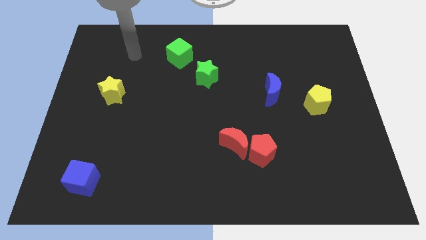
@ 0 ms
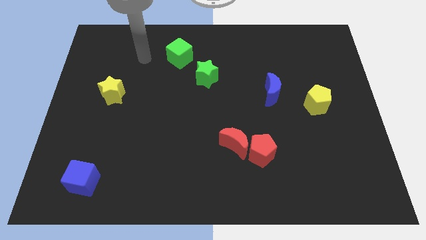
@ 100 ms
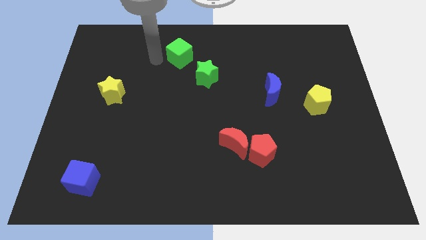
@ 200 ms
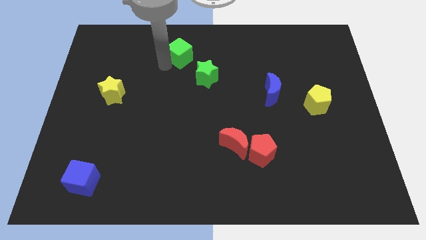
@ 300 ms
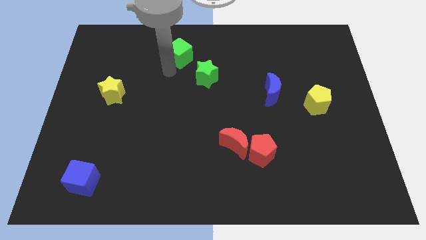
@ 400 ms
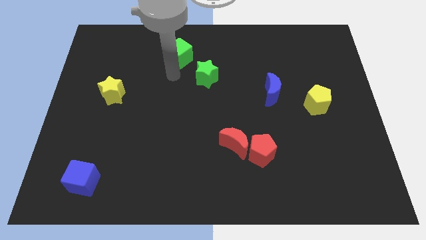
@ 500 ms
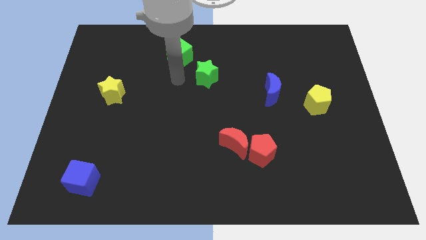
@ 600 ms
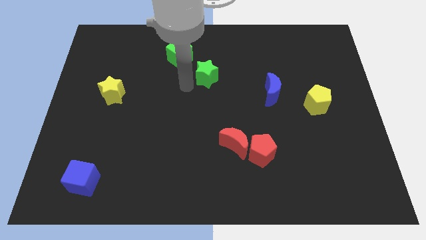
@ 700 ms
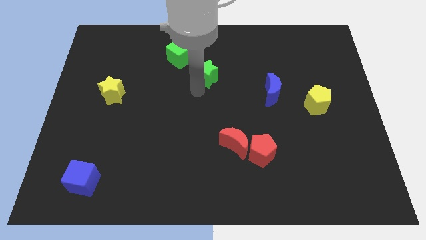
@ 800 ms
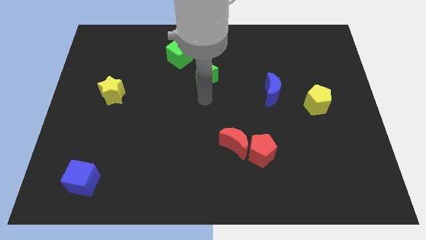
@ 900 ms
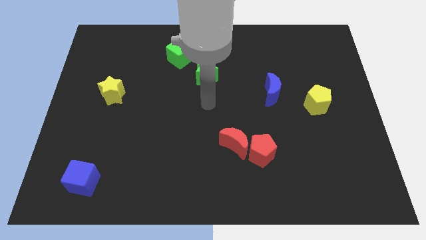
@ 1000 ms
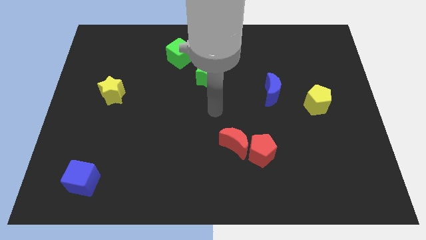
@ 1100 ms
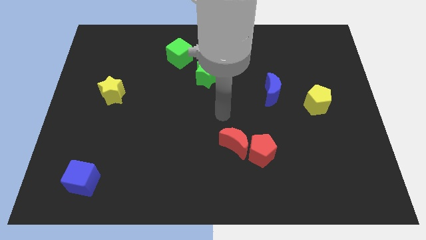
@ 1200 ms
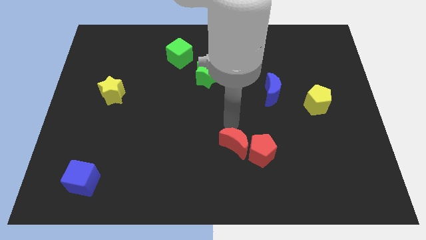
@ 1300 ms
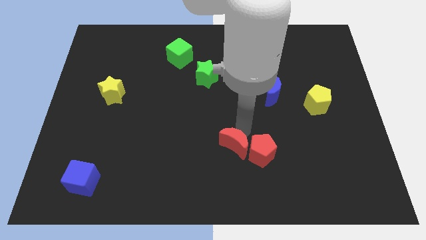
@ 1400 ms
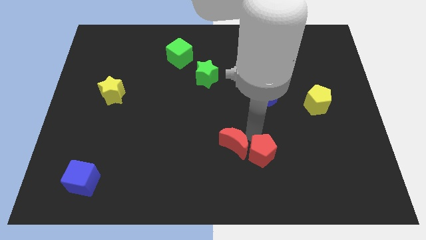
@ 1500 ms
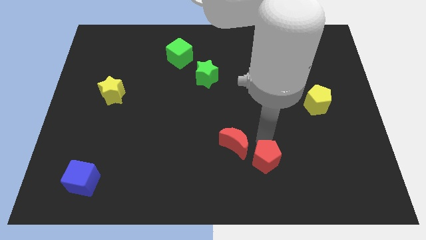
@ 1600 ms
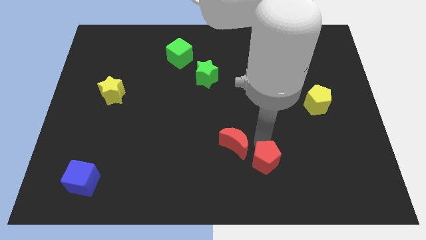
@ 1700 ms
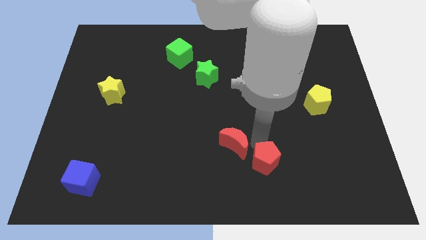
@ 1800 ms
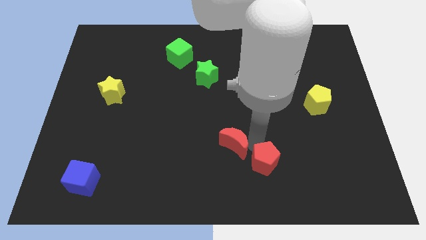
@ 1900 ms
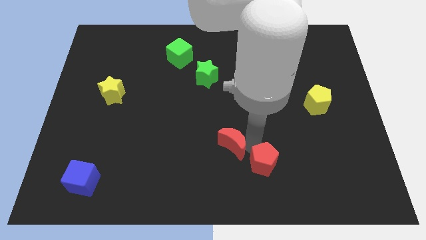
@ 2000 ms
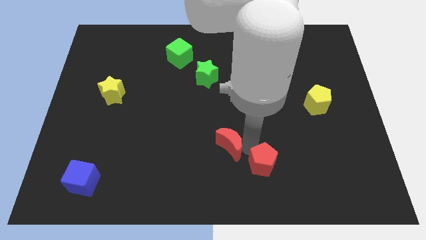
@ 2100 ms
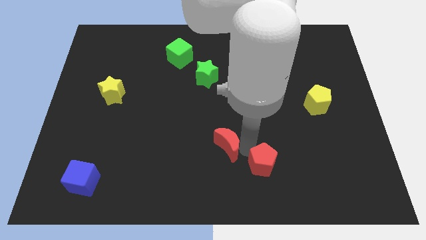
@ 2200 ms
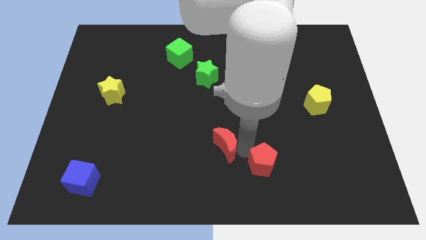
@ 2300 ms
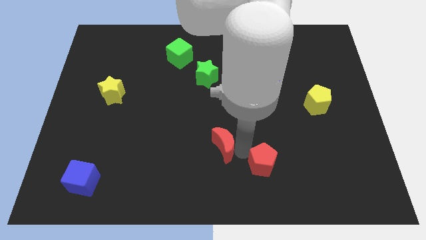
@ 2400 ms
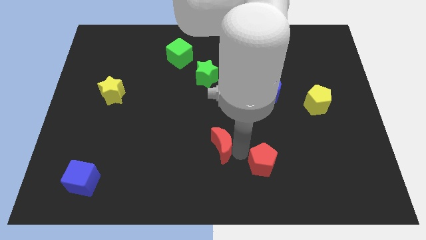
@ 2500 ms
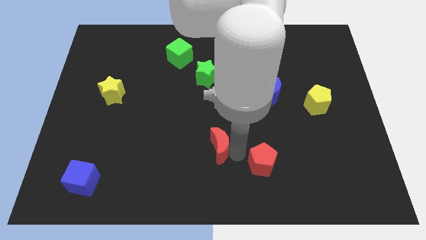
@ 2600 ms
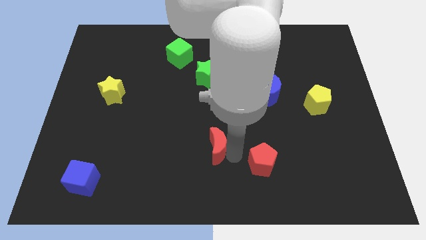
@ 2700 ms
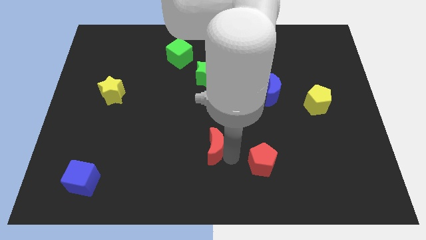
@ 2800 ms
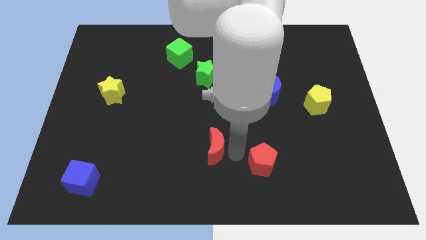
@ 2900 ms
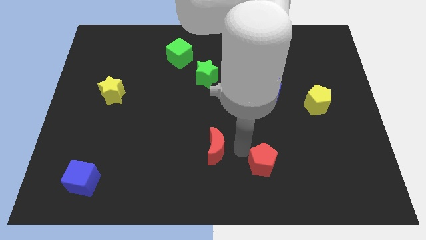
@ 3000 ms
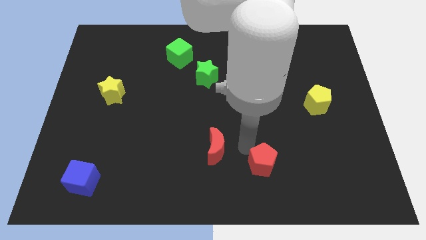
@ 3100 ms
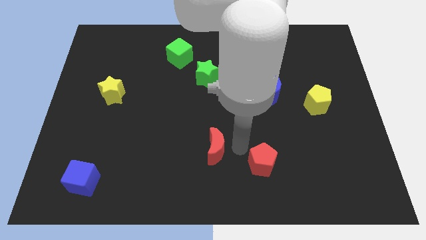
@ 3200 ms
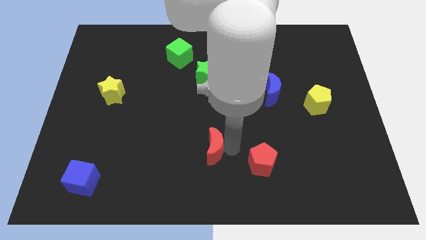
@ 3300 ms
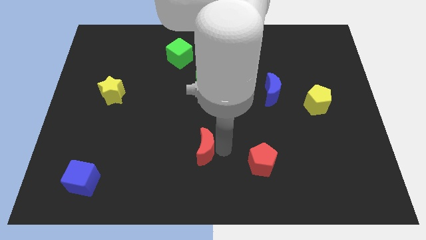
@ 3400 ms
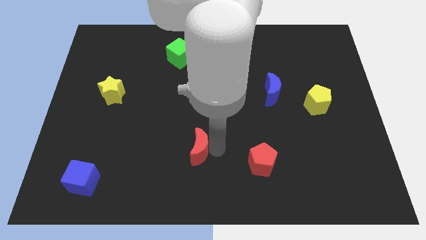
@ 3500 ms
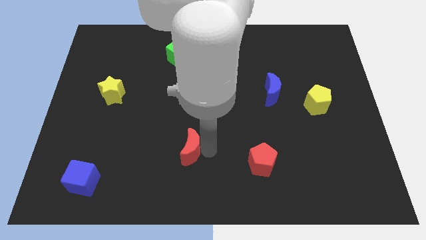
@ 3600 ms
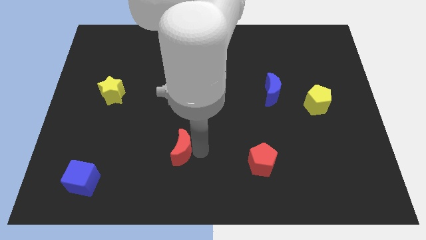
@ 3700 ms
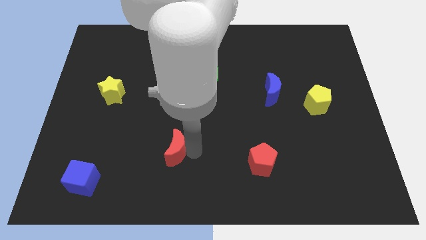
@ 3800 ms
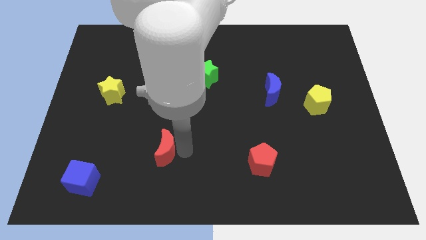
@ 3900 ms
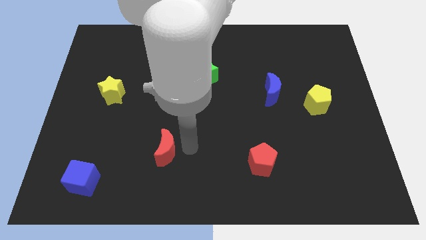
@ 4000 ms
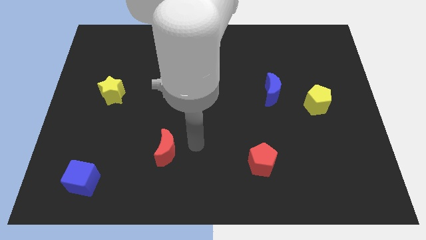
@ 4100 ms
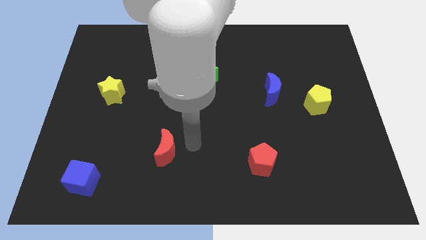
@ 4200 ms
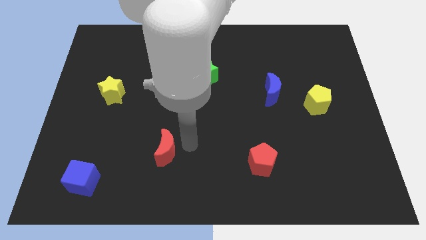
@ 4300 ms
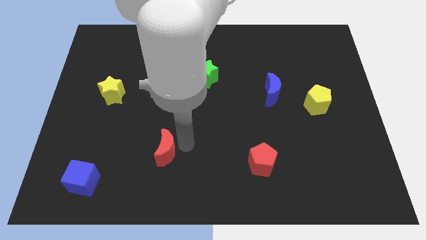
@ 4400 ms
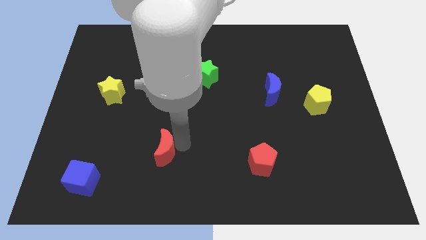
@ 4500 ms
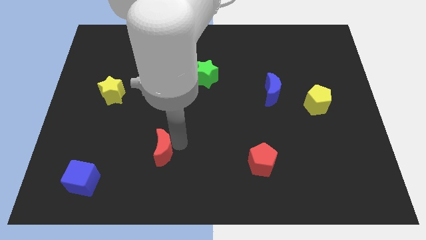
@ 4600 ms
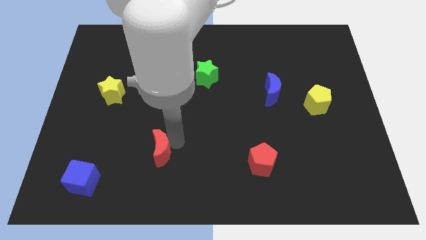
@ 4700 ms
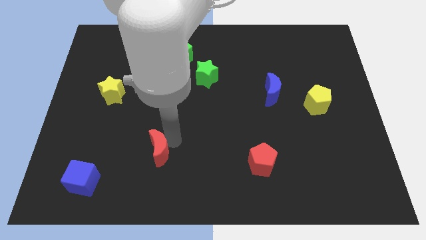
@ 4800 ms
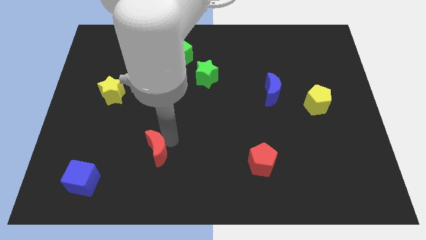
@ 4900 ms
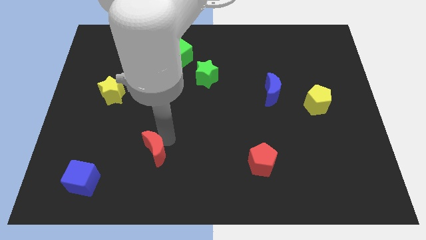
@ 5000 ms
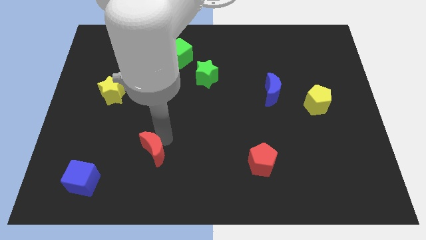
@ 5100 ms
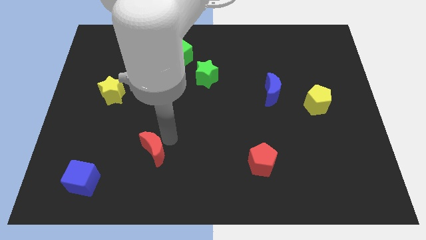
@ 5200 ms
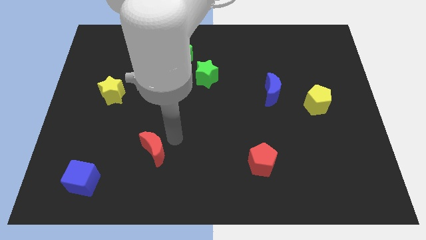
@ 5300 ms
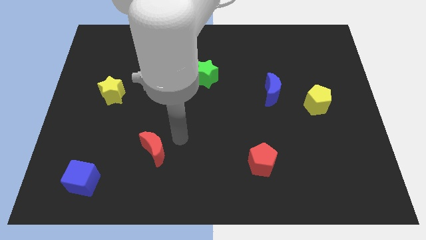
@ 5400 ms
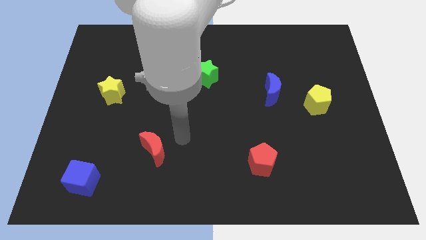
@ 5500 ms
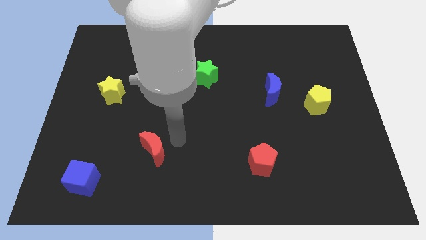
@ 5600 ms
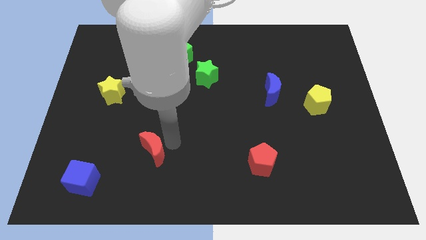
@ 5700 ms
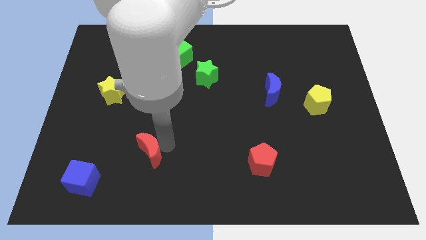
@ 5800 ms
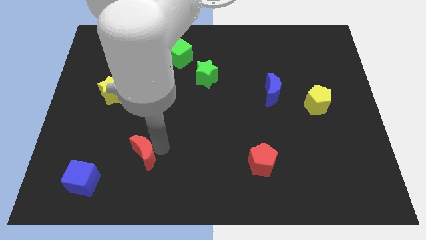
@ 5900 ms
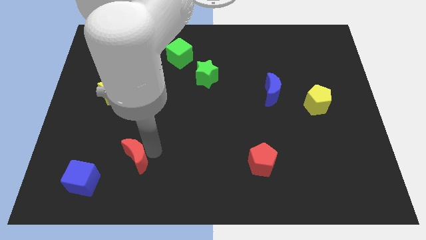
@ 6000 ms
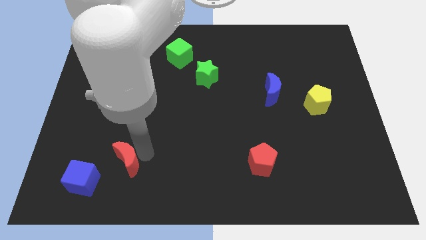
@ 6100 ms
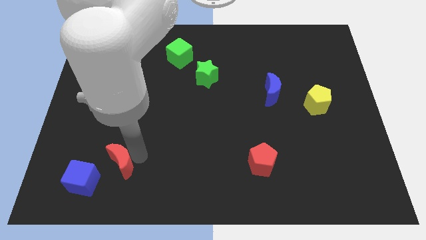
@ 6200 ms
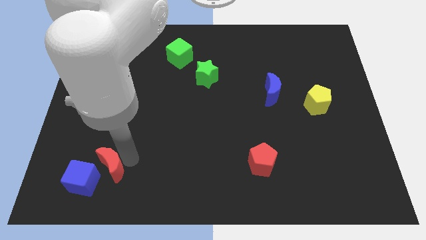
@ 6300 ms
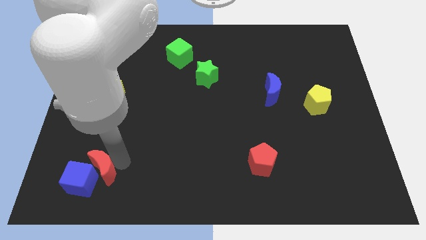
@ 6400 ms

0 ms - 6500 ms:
slide the red moon next to the blue cube
